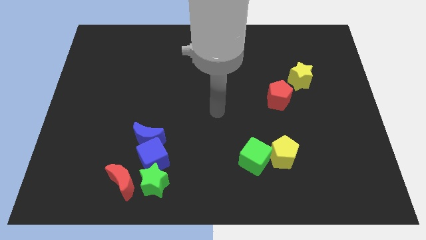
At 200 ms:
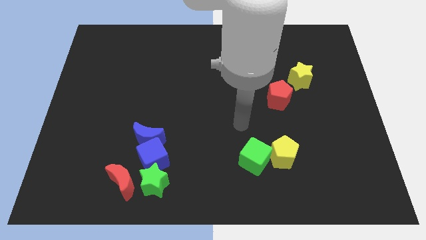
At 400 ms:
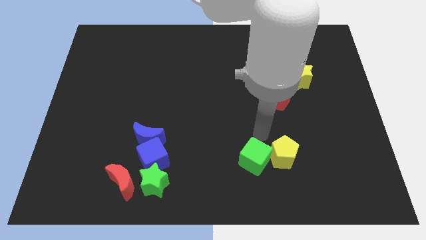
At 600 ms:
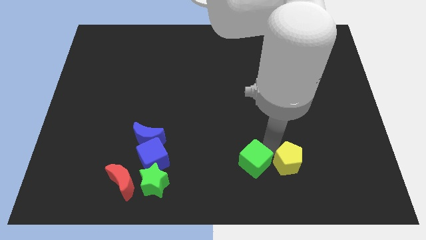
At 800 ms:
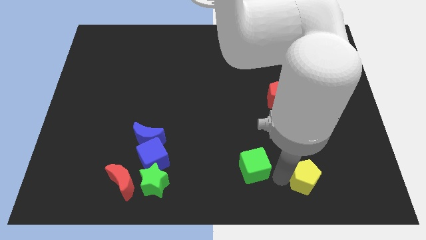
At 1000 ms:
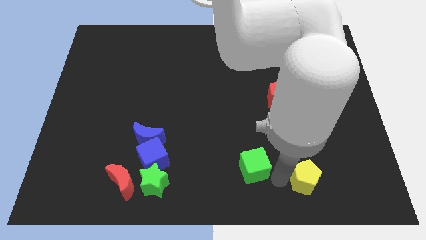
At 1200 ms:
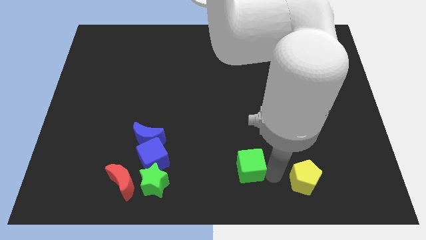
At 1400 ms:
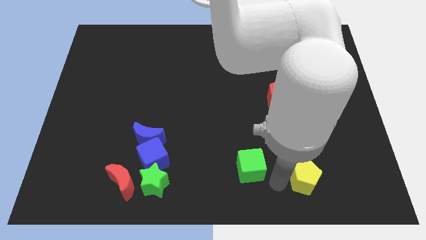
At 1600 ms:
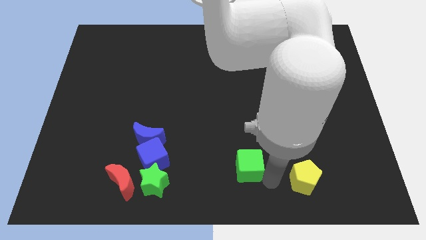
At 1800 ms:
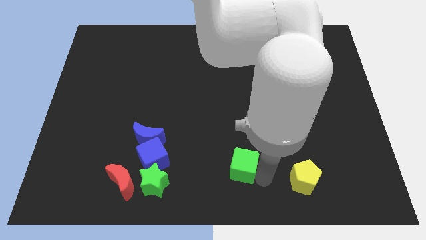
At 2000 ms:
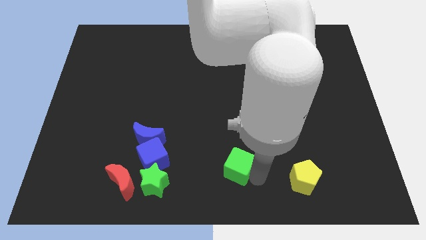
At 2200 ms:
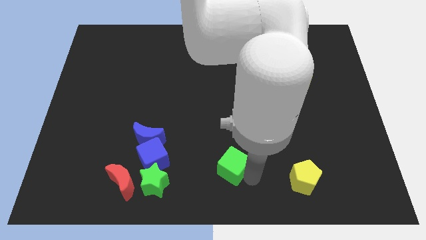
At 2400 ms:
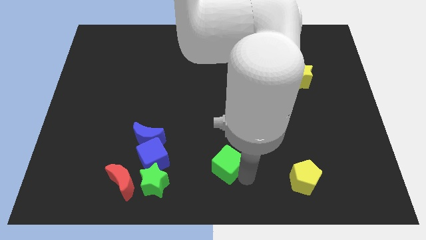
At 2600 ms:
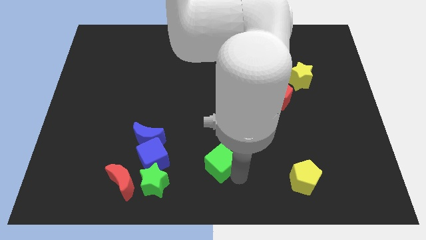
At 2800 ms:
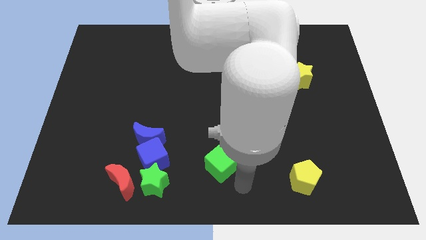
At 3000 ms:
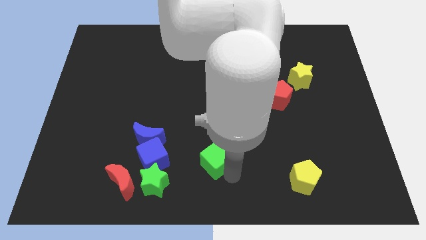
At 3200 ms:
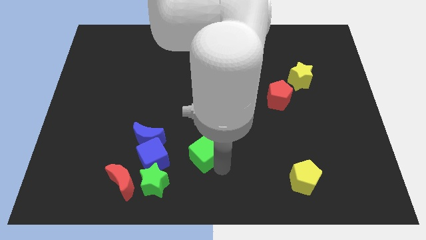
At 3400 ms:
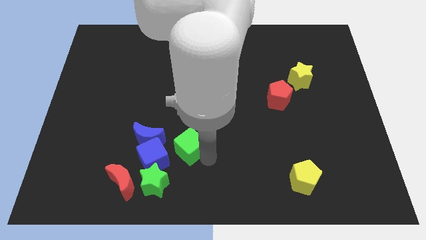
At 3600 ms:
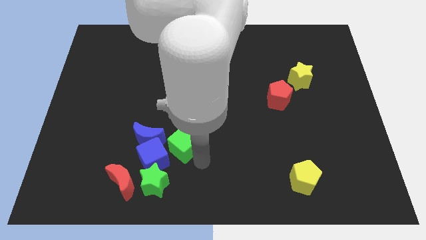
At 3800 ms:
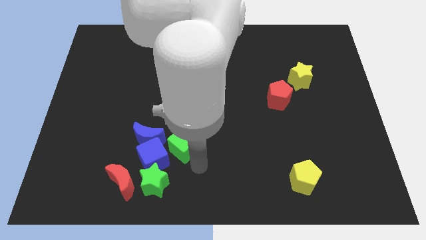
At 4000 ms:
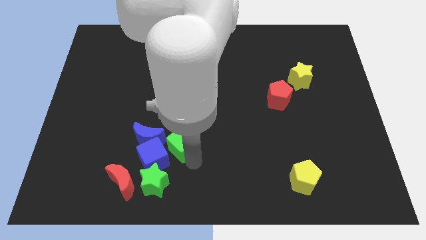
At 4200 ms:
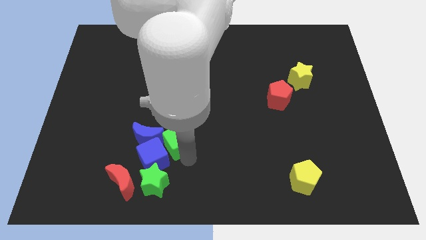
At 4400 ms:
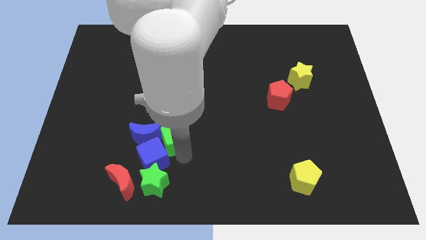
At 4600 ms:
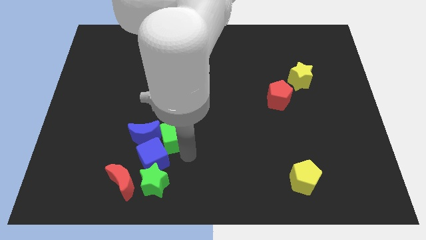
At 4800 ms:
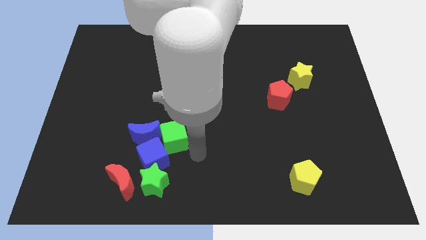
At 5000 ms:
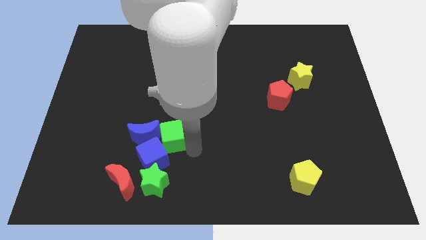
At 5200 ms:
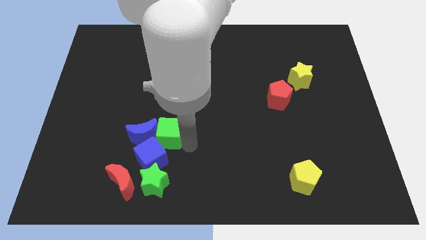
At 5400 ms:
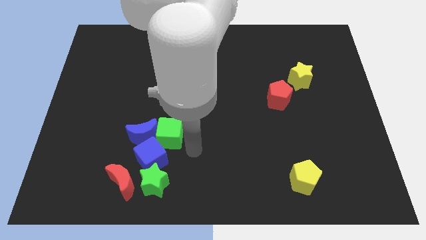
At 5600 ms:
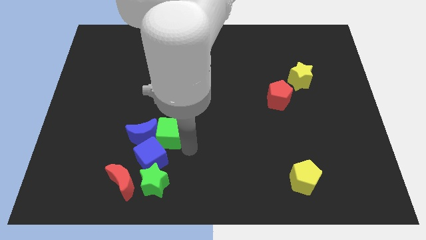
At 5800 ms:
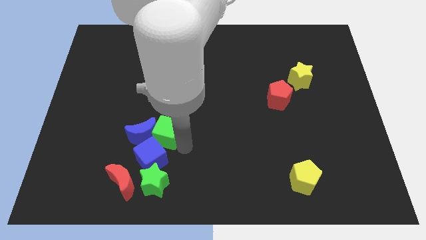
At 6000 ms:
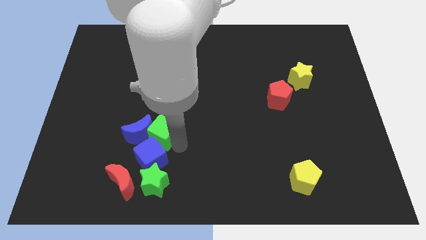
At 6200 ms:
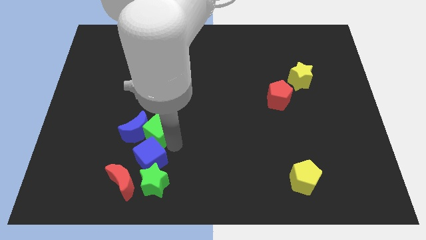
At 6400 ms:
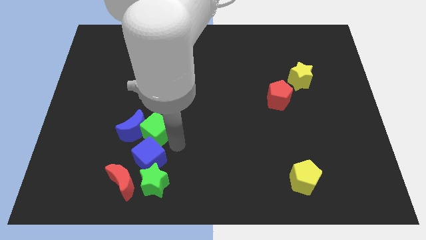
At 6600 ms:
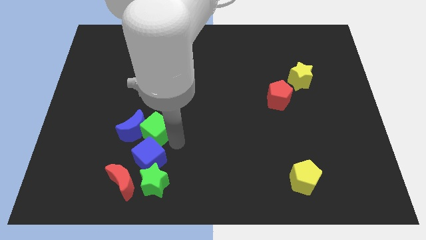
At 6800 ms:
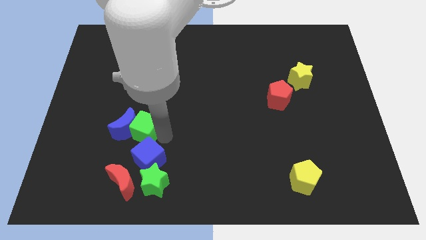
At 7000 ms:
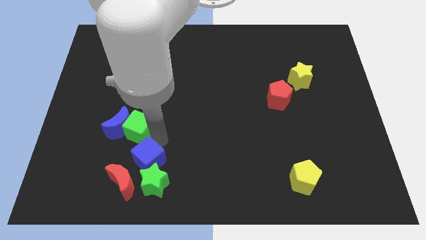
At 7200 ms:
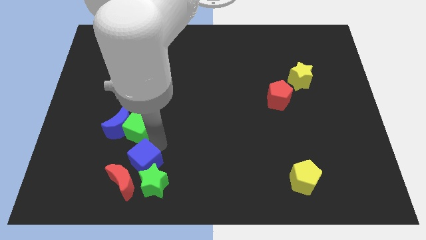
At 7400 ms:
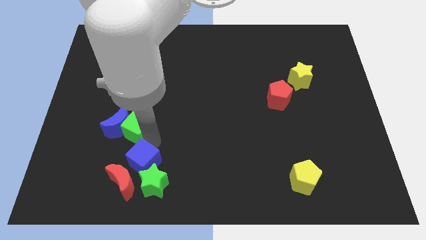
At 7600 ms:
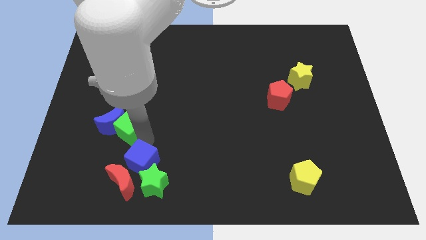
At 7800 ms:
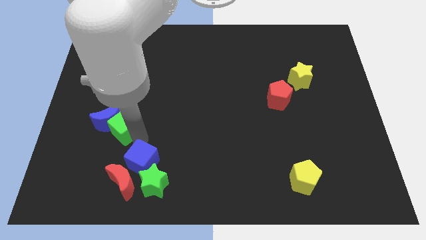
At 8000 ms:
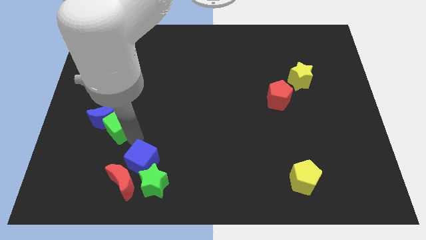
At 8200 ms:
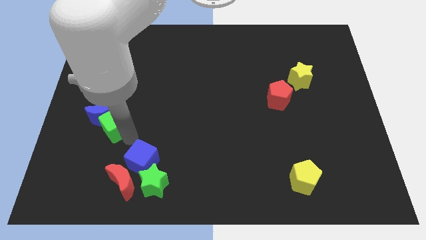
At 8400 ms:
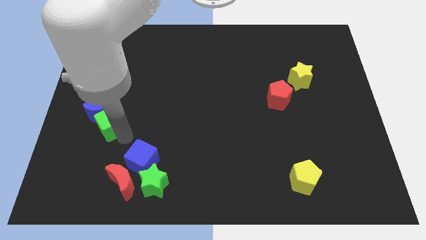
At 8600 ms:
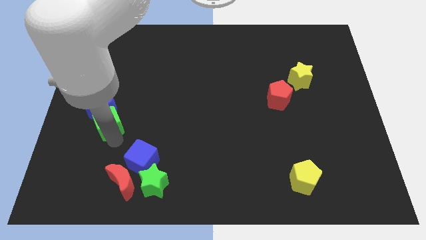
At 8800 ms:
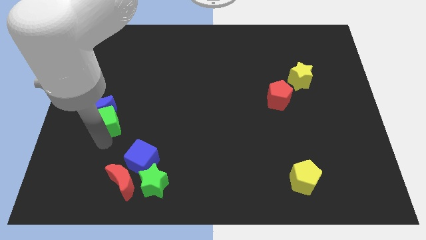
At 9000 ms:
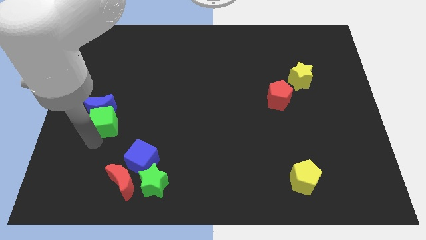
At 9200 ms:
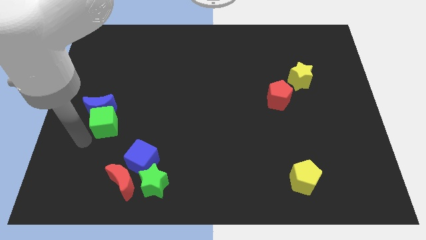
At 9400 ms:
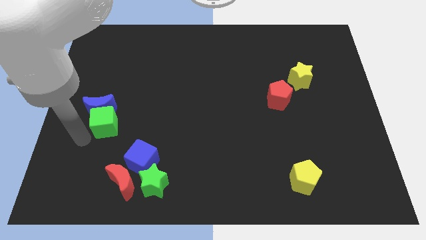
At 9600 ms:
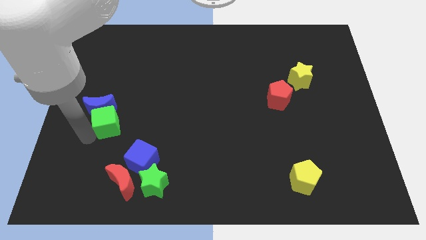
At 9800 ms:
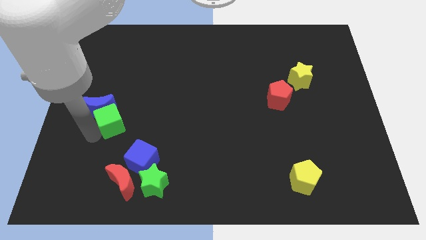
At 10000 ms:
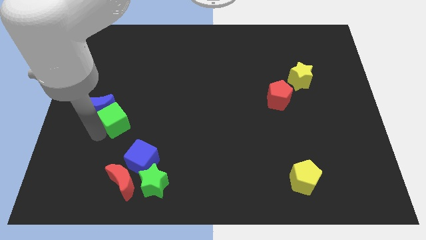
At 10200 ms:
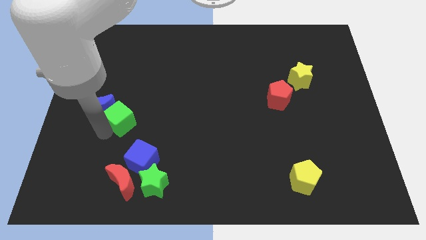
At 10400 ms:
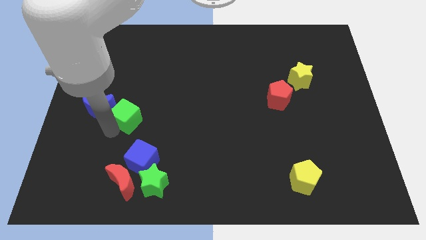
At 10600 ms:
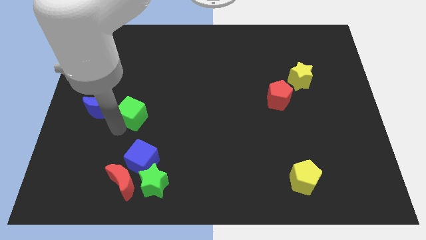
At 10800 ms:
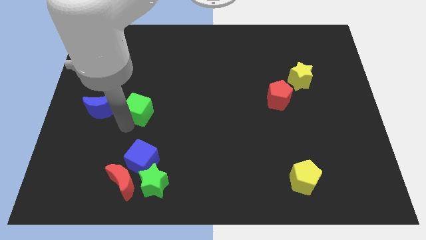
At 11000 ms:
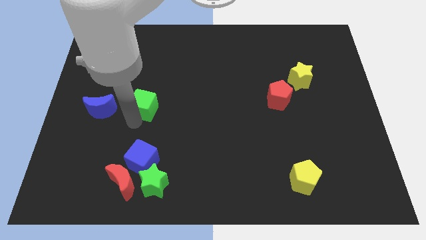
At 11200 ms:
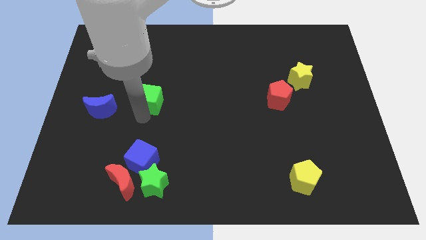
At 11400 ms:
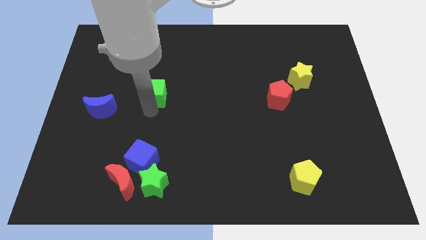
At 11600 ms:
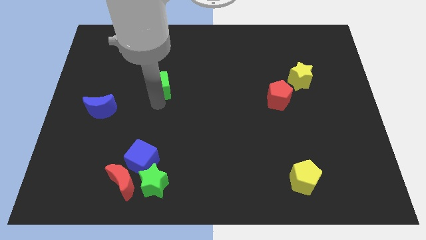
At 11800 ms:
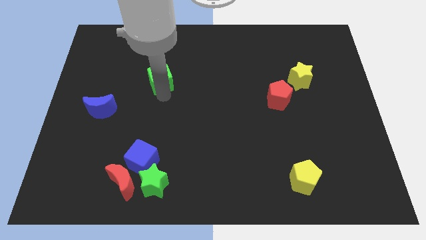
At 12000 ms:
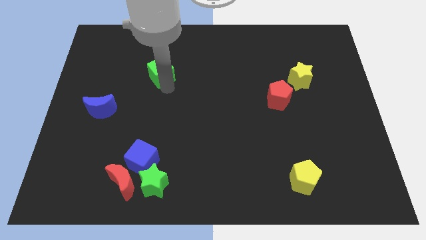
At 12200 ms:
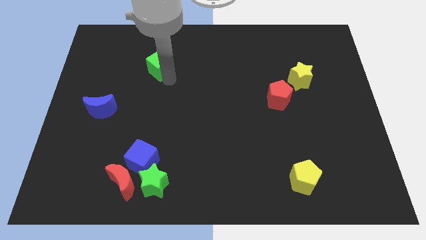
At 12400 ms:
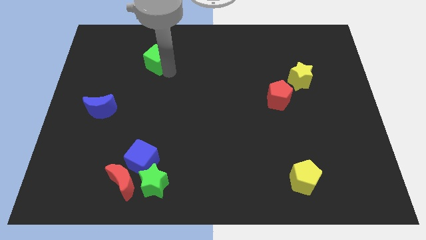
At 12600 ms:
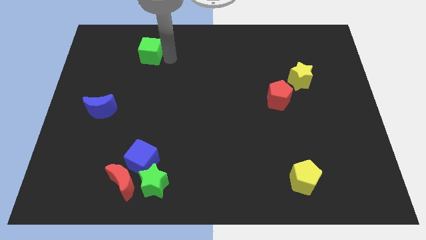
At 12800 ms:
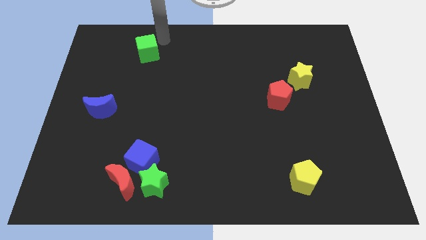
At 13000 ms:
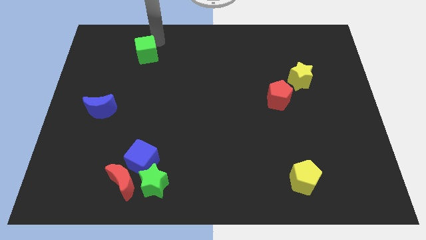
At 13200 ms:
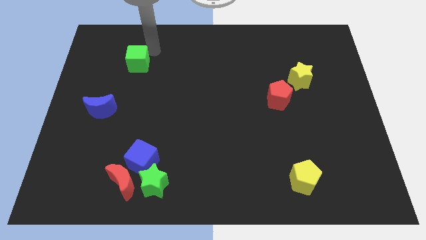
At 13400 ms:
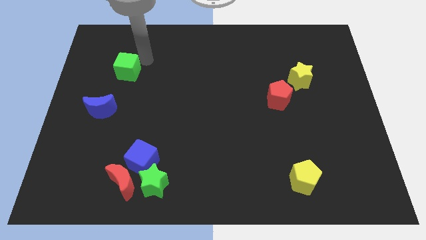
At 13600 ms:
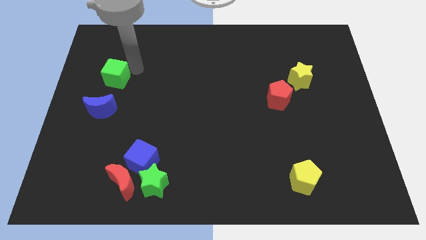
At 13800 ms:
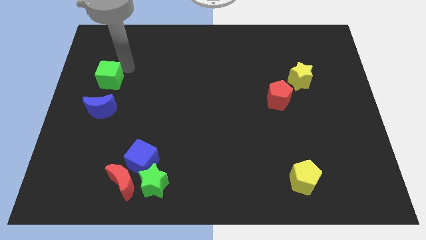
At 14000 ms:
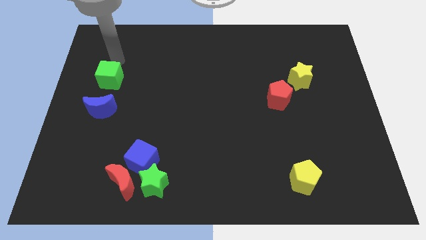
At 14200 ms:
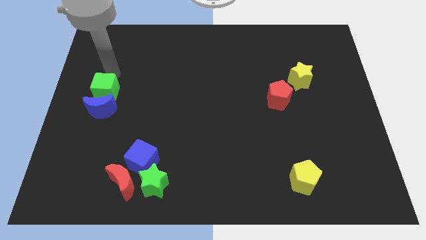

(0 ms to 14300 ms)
push the green cube to the center left
